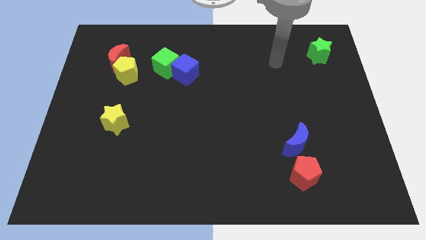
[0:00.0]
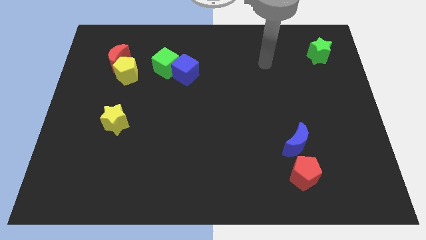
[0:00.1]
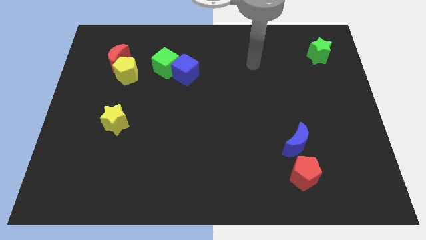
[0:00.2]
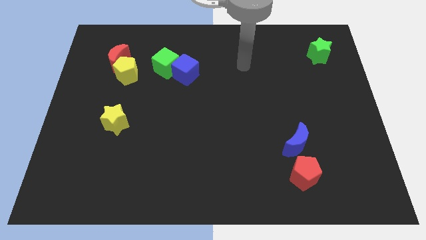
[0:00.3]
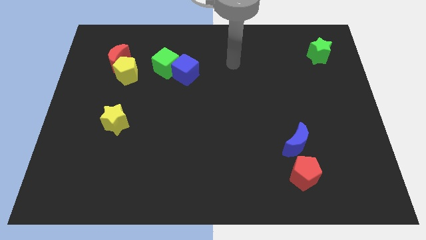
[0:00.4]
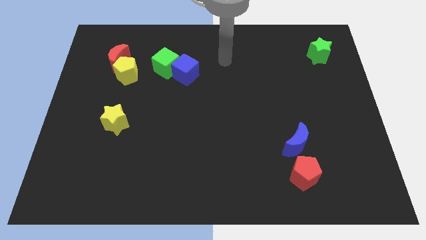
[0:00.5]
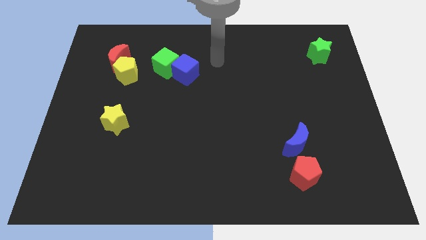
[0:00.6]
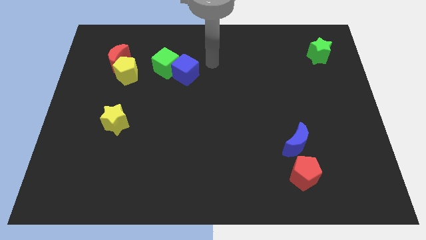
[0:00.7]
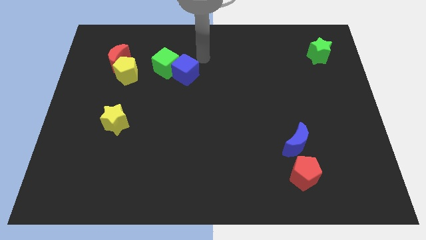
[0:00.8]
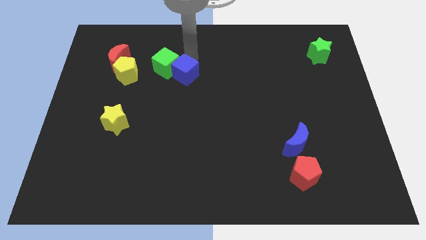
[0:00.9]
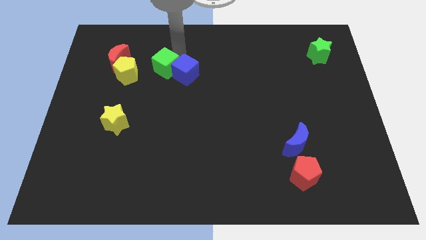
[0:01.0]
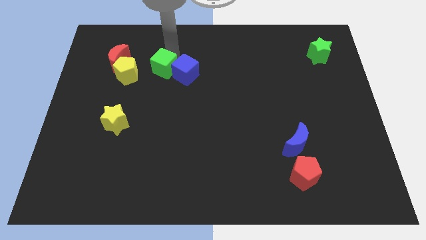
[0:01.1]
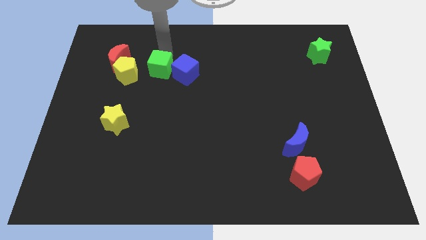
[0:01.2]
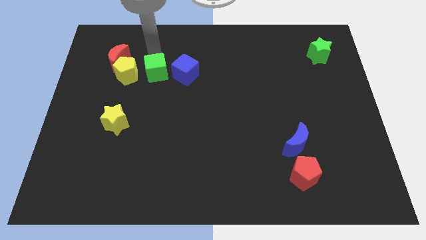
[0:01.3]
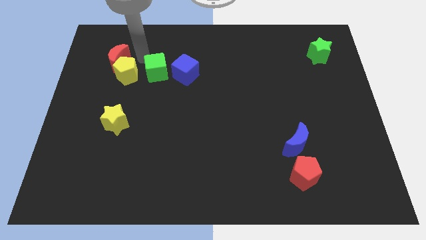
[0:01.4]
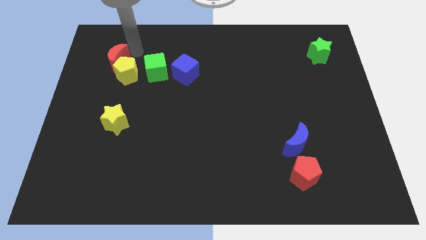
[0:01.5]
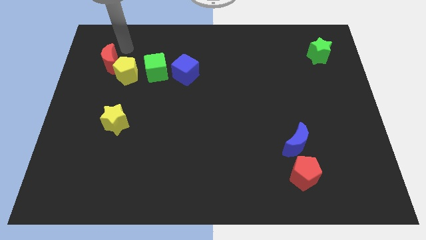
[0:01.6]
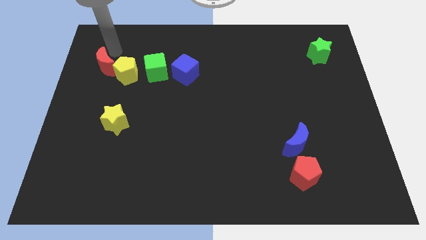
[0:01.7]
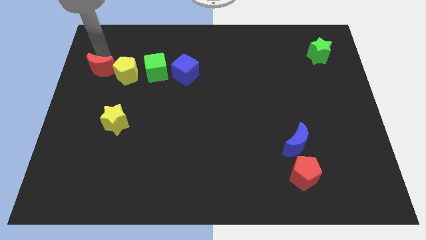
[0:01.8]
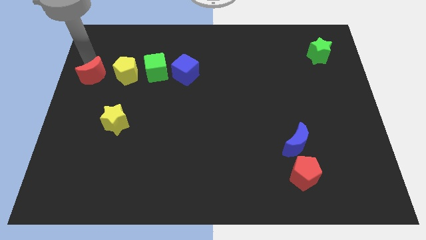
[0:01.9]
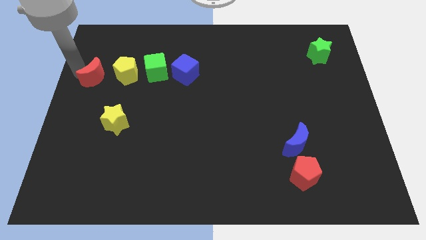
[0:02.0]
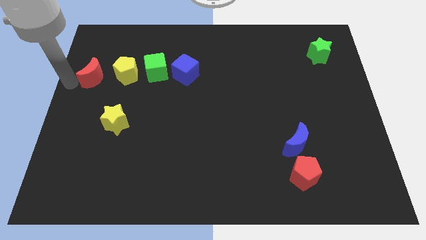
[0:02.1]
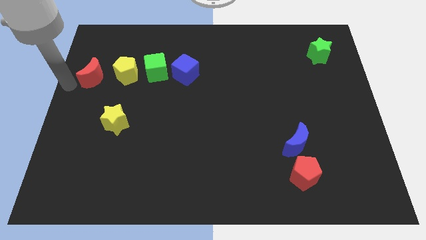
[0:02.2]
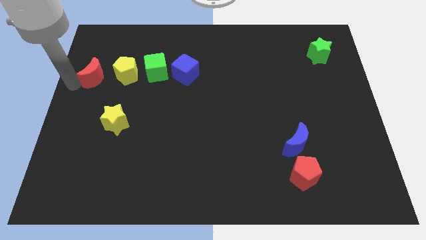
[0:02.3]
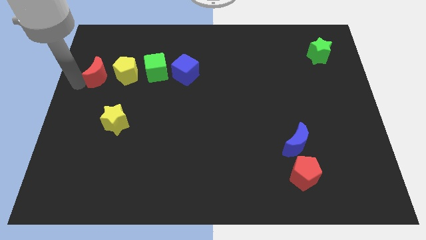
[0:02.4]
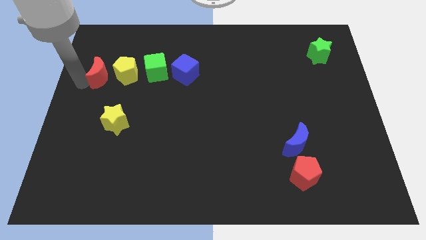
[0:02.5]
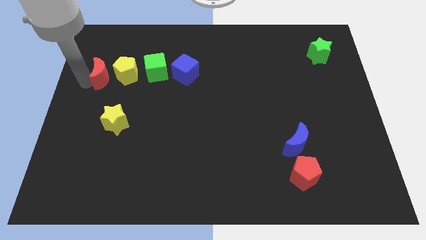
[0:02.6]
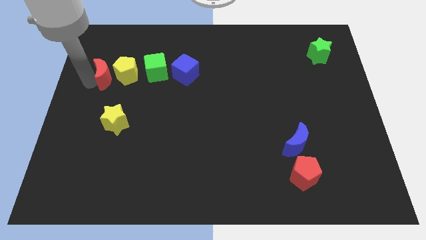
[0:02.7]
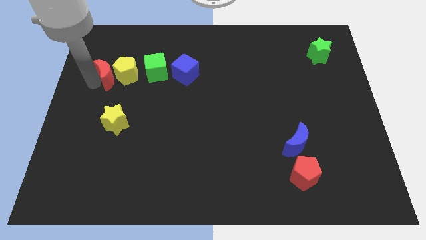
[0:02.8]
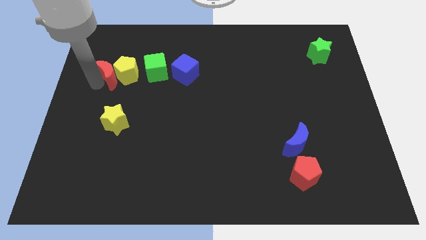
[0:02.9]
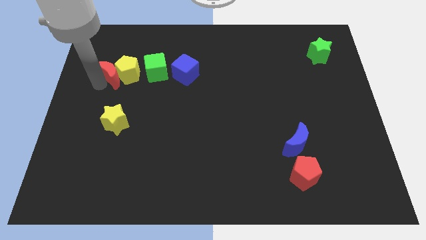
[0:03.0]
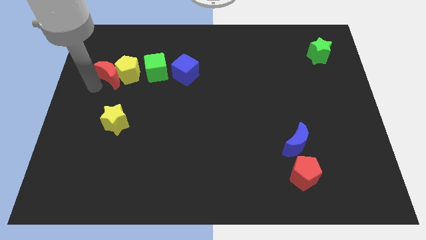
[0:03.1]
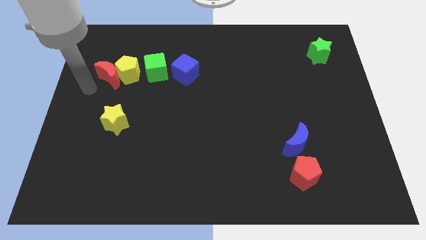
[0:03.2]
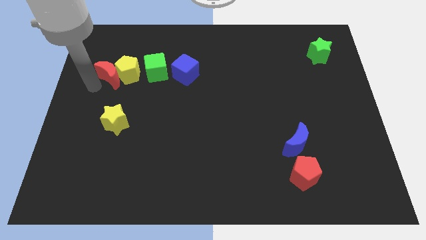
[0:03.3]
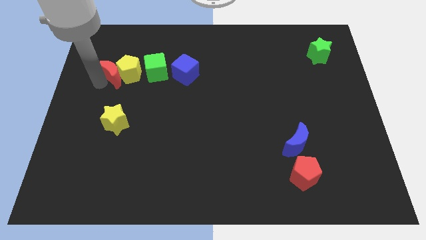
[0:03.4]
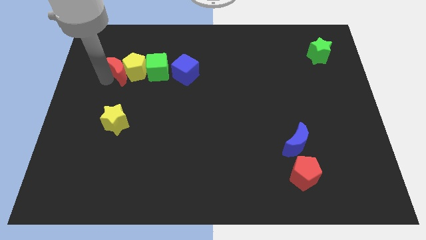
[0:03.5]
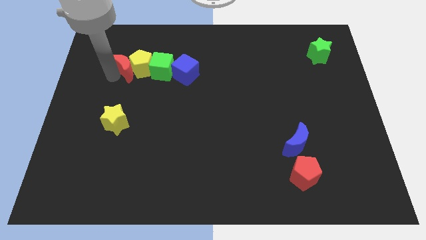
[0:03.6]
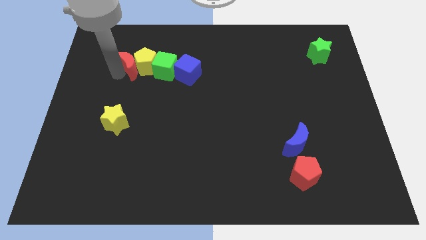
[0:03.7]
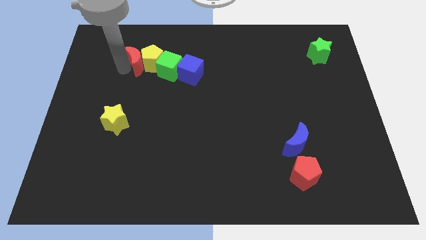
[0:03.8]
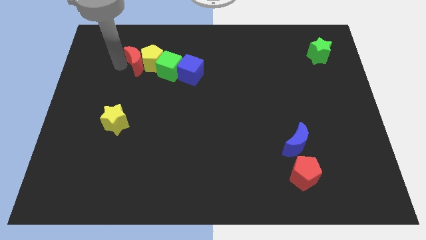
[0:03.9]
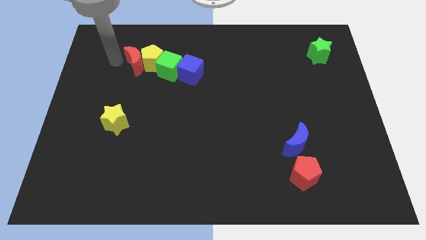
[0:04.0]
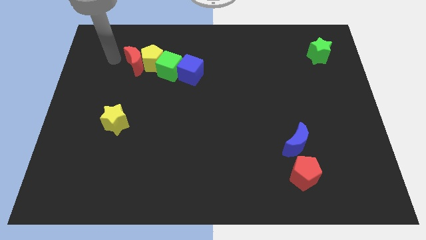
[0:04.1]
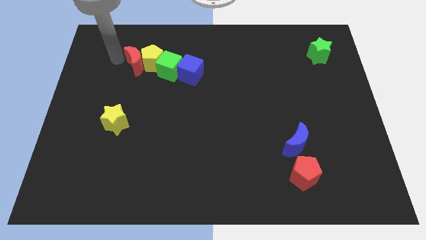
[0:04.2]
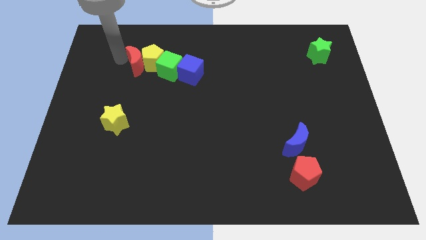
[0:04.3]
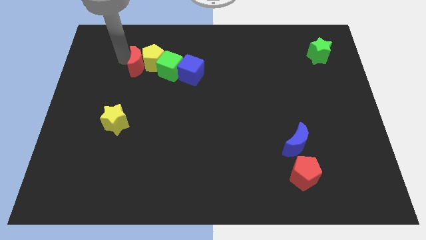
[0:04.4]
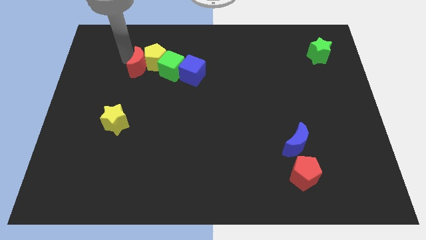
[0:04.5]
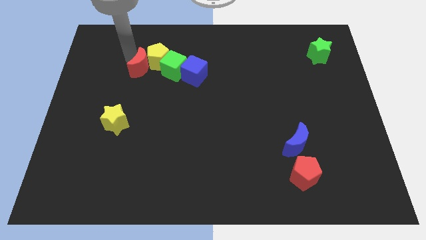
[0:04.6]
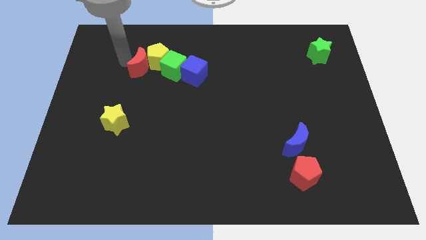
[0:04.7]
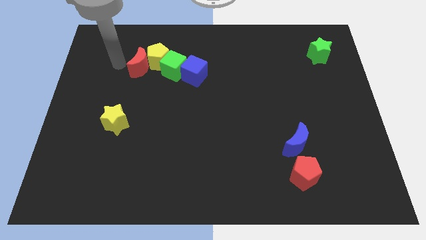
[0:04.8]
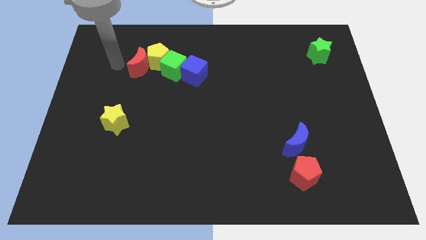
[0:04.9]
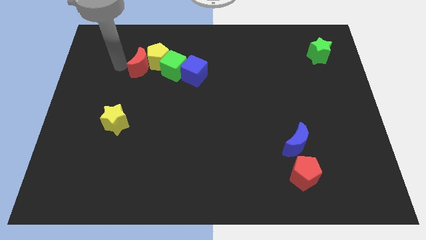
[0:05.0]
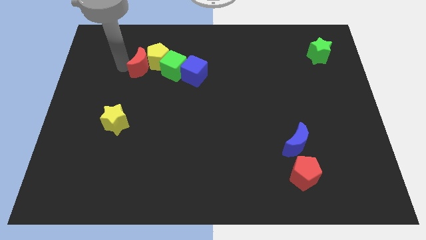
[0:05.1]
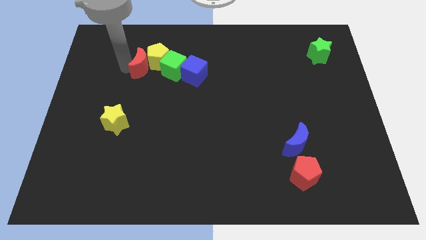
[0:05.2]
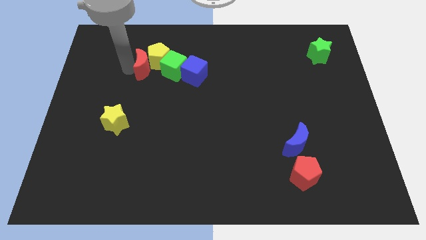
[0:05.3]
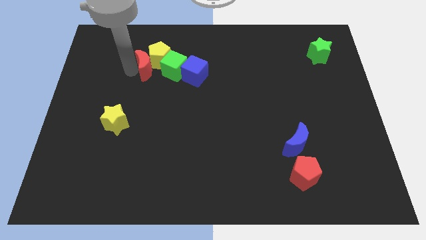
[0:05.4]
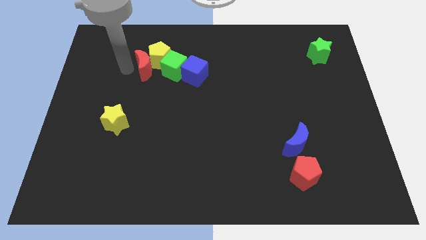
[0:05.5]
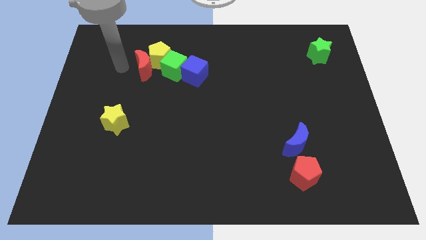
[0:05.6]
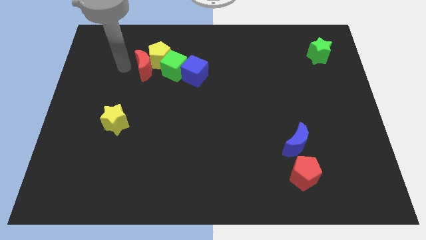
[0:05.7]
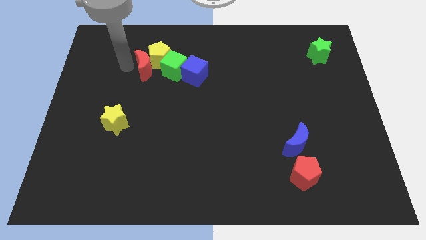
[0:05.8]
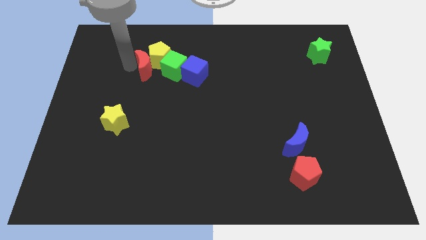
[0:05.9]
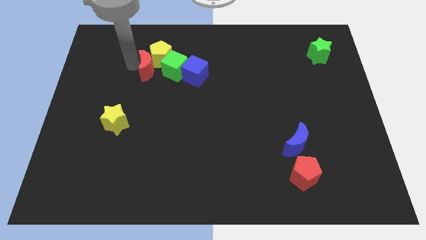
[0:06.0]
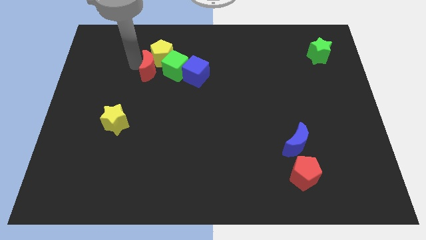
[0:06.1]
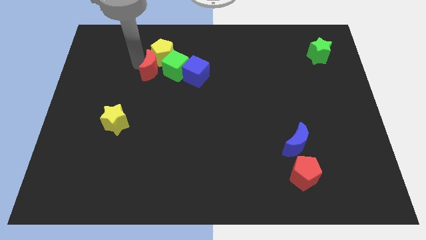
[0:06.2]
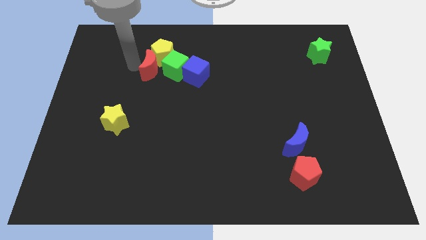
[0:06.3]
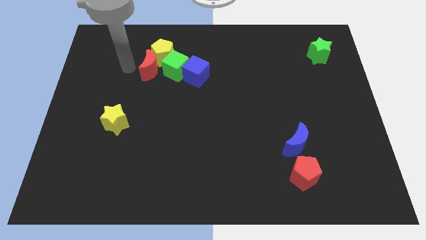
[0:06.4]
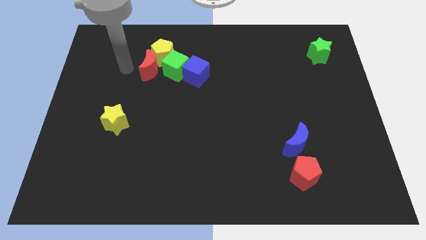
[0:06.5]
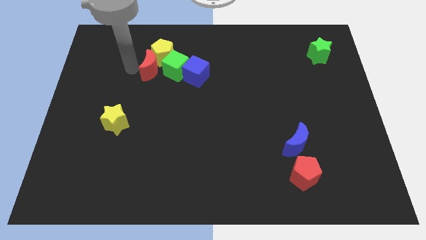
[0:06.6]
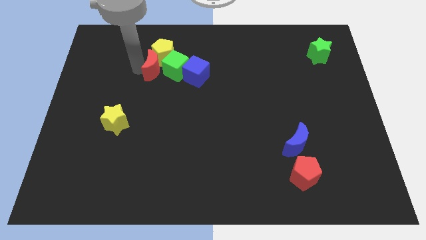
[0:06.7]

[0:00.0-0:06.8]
move the red moon close to the green cube

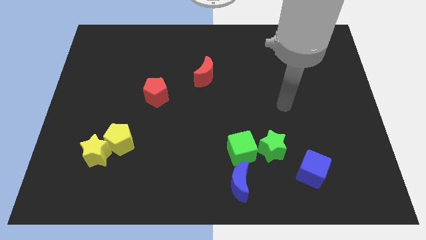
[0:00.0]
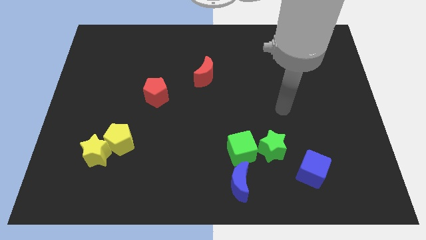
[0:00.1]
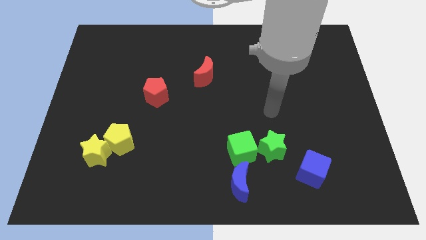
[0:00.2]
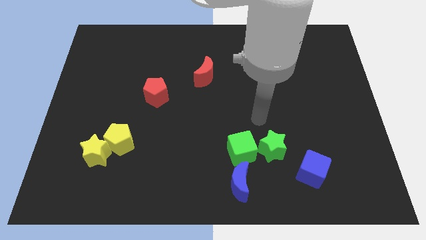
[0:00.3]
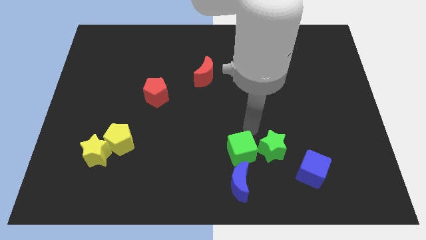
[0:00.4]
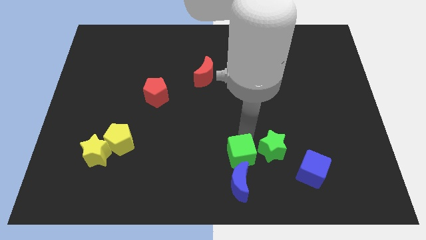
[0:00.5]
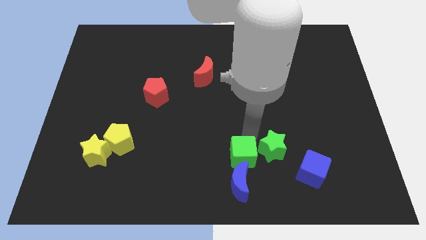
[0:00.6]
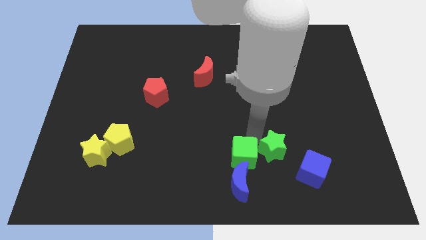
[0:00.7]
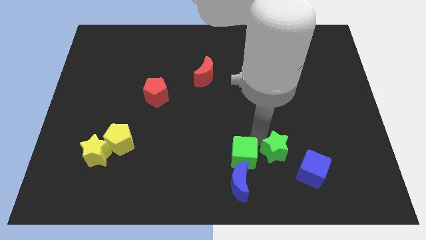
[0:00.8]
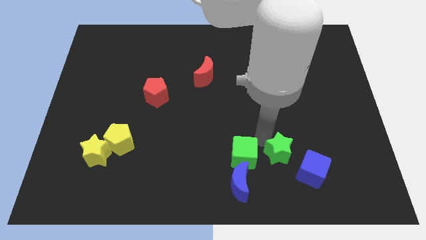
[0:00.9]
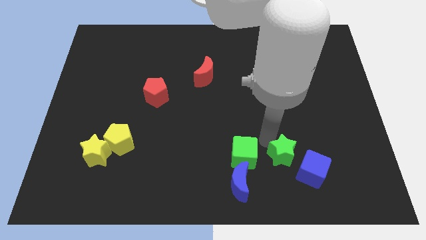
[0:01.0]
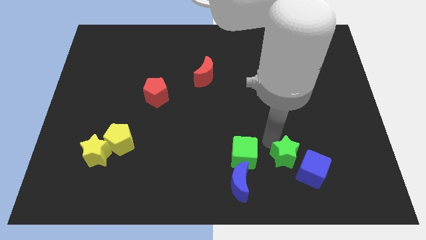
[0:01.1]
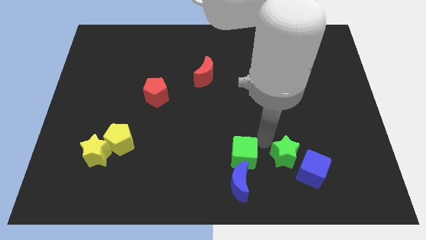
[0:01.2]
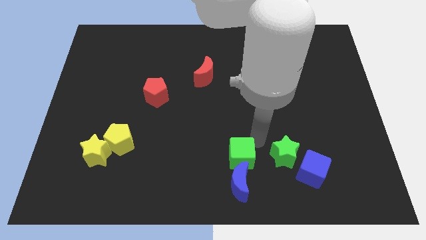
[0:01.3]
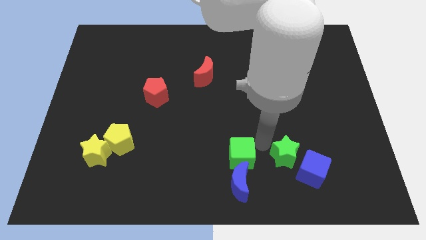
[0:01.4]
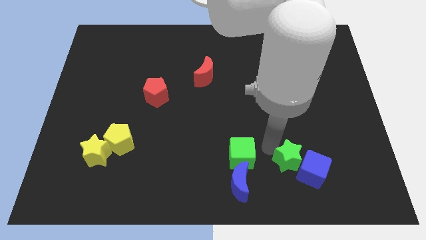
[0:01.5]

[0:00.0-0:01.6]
push the green star to the blue cube
